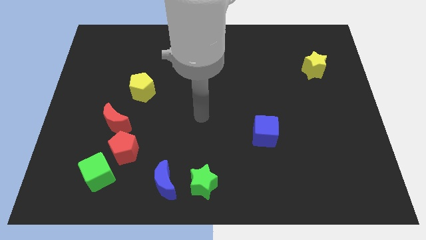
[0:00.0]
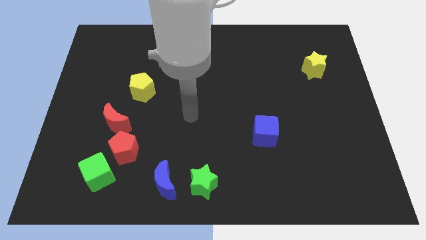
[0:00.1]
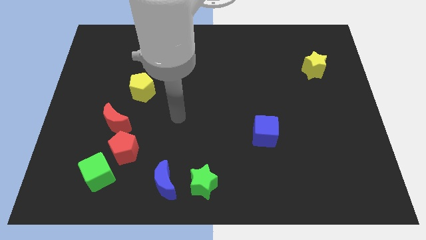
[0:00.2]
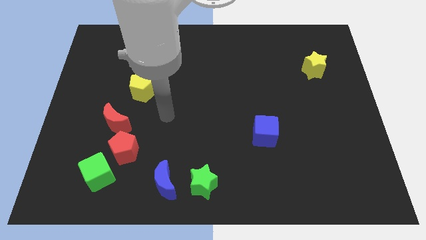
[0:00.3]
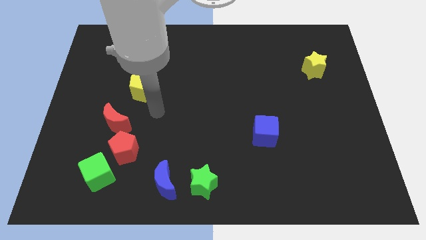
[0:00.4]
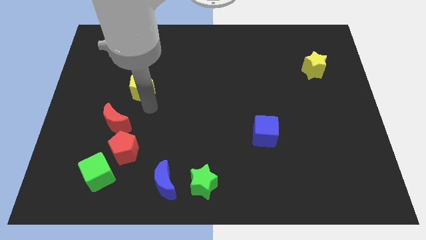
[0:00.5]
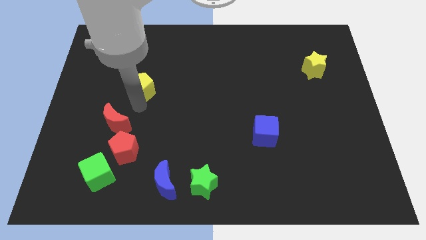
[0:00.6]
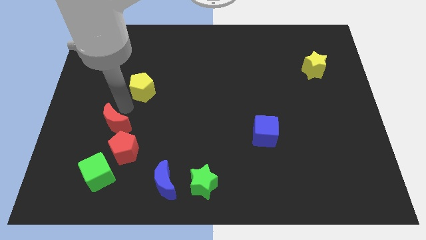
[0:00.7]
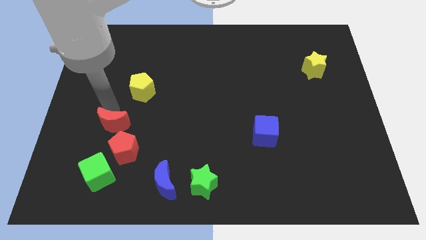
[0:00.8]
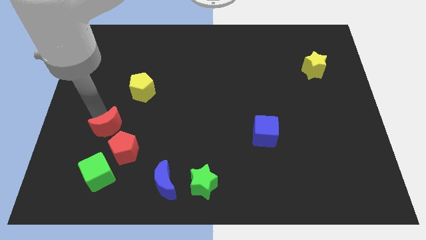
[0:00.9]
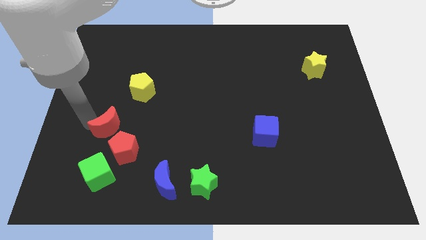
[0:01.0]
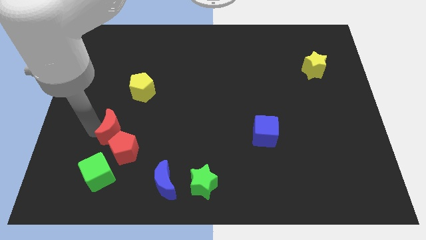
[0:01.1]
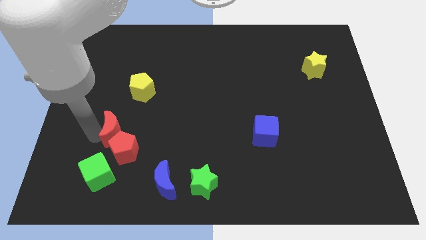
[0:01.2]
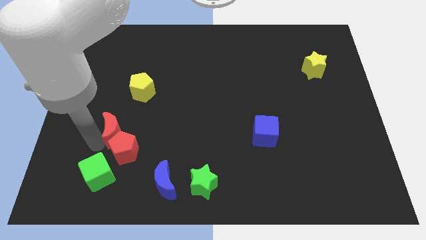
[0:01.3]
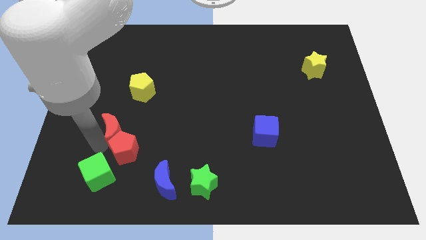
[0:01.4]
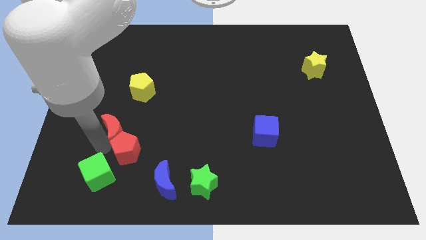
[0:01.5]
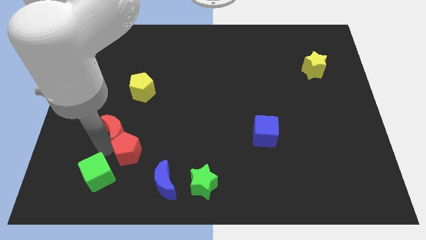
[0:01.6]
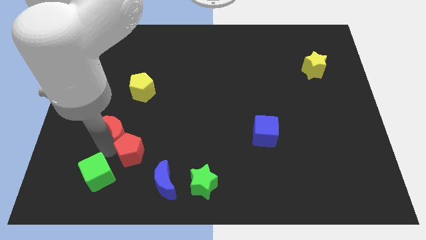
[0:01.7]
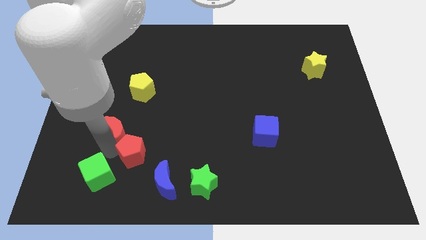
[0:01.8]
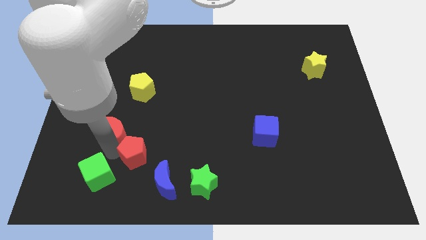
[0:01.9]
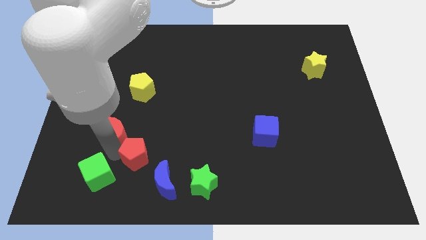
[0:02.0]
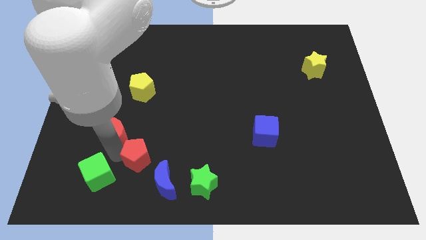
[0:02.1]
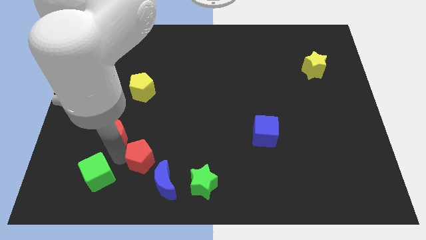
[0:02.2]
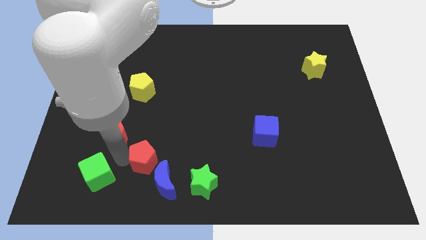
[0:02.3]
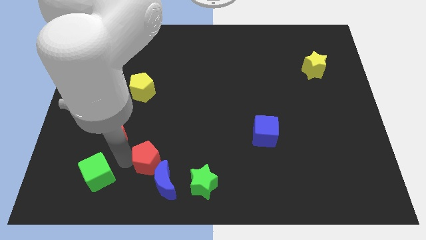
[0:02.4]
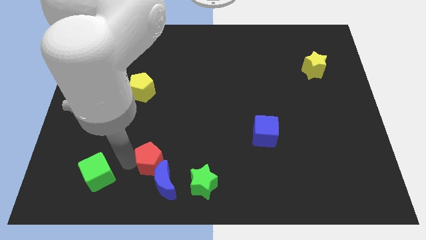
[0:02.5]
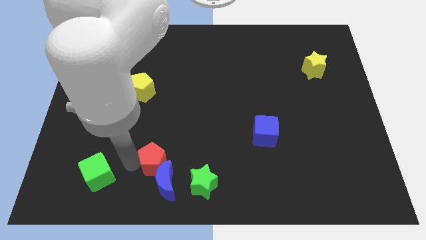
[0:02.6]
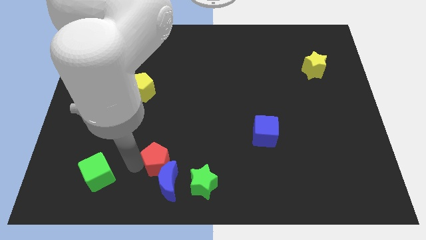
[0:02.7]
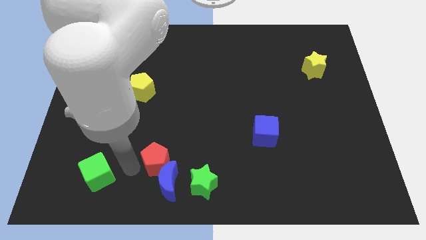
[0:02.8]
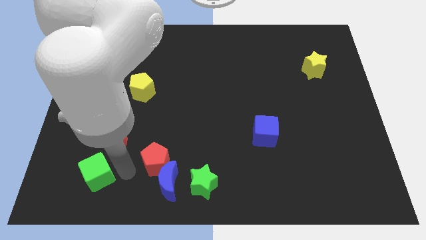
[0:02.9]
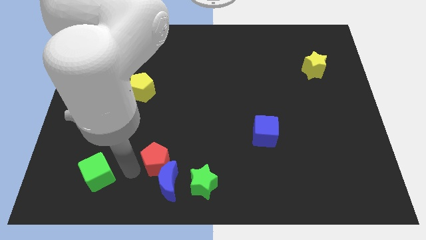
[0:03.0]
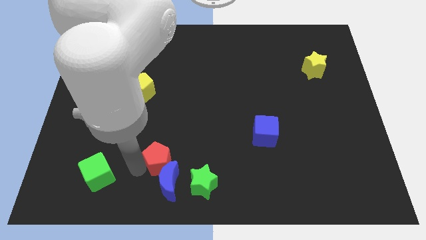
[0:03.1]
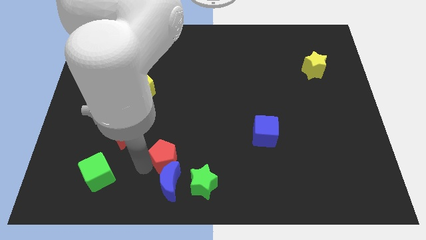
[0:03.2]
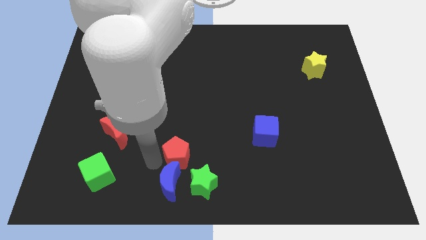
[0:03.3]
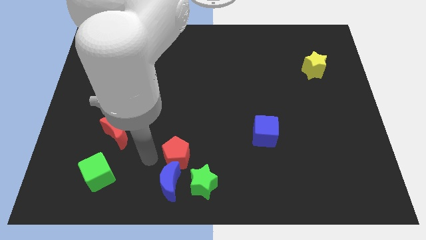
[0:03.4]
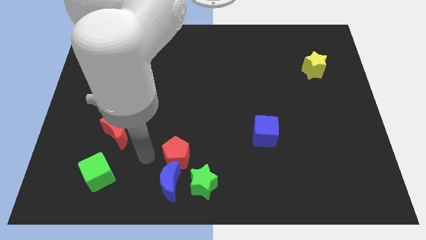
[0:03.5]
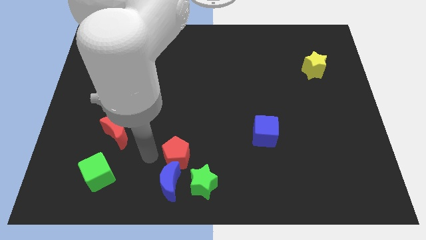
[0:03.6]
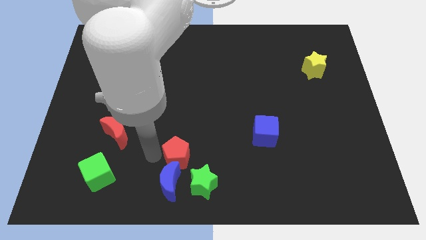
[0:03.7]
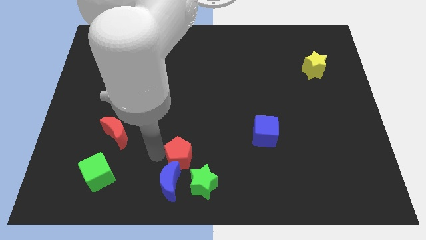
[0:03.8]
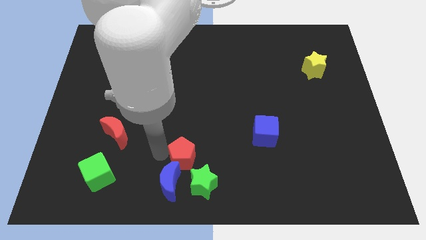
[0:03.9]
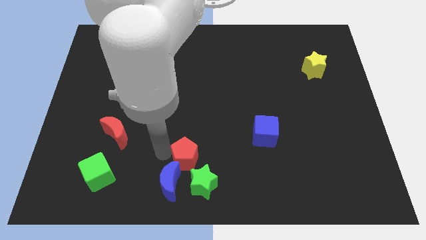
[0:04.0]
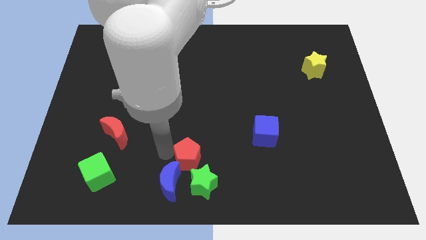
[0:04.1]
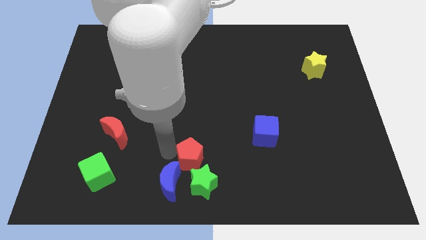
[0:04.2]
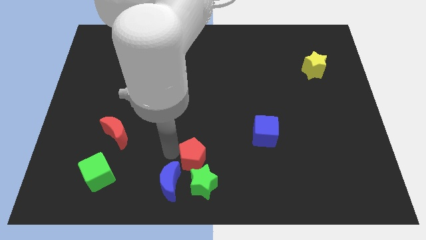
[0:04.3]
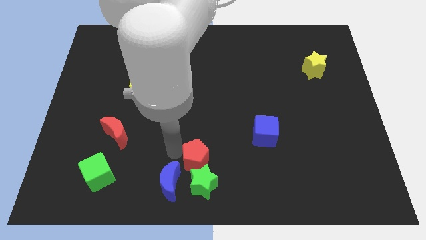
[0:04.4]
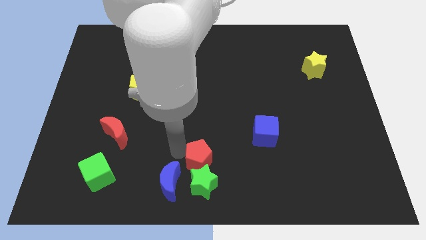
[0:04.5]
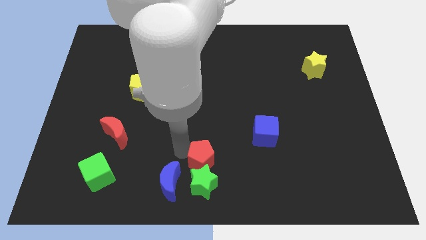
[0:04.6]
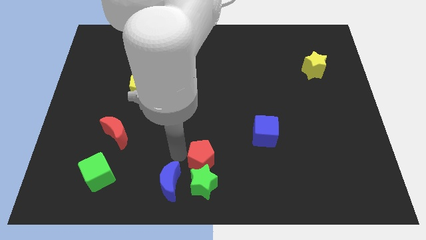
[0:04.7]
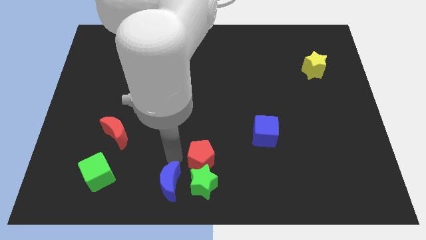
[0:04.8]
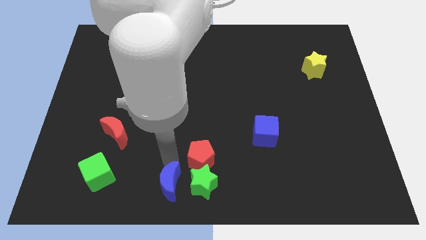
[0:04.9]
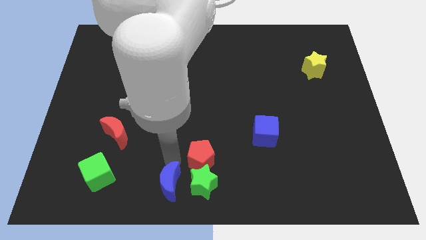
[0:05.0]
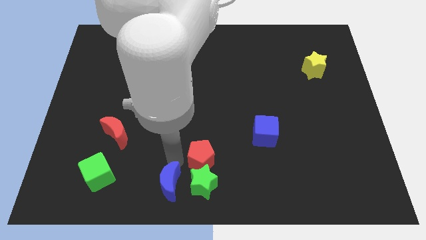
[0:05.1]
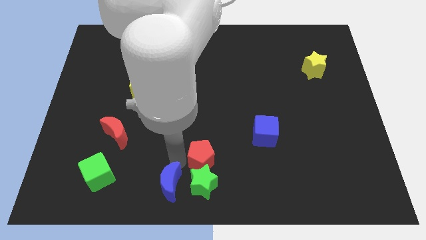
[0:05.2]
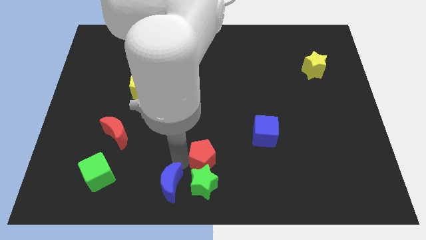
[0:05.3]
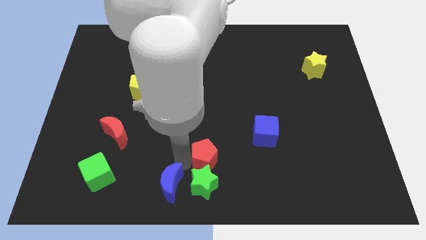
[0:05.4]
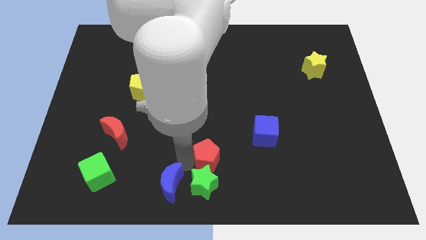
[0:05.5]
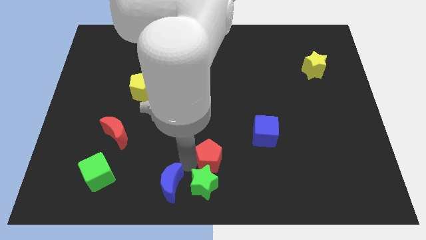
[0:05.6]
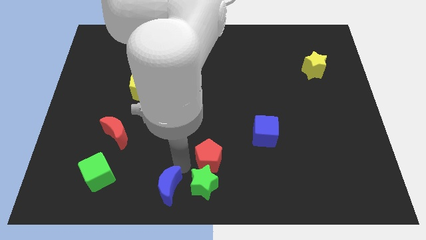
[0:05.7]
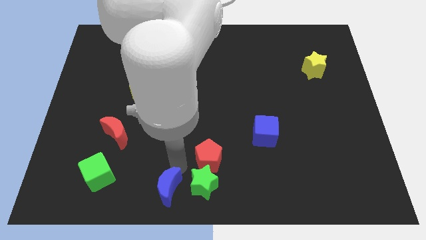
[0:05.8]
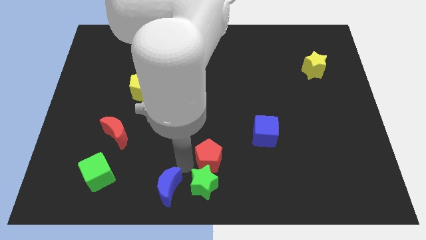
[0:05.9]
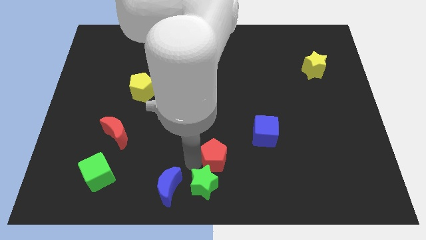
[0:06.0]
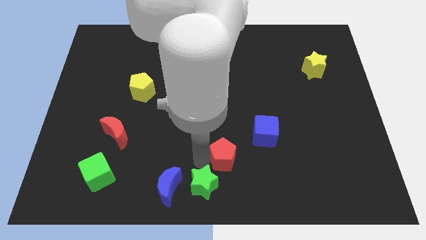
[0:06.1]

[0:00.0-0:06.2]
slide the red pentagon to the right

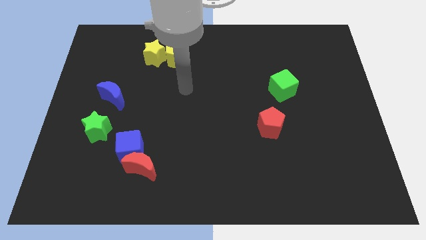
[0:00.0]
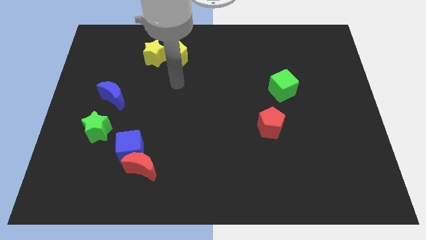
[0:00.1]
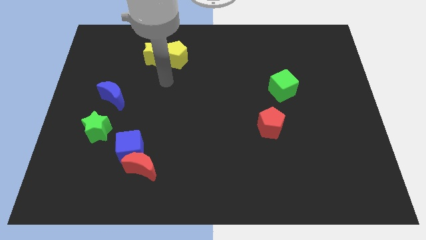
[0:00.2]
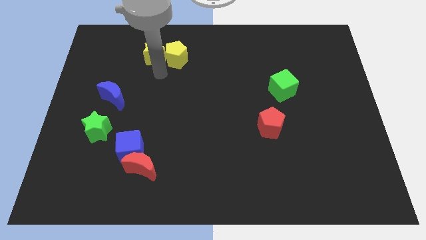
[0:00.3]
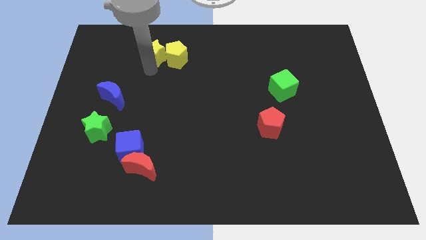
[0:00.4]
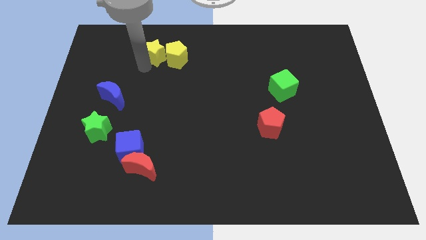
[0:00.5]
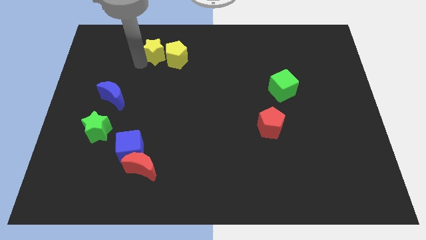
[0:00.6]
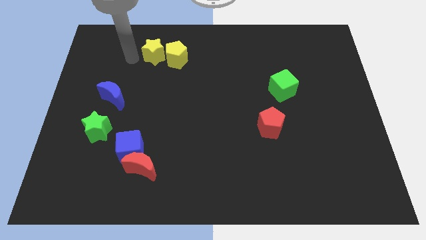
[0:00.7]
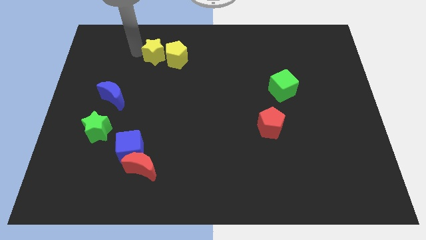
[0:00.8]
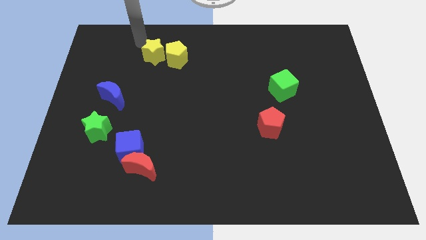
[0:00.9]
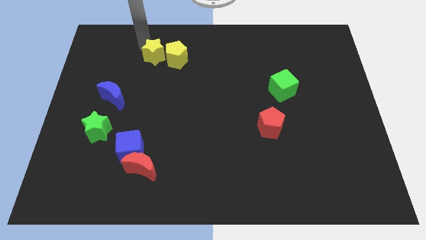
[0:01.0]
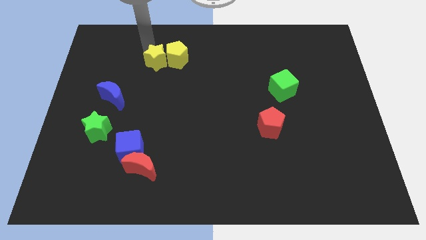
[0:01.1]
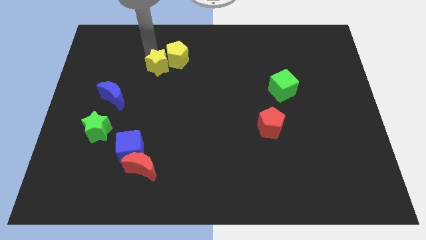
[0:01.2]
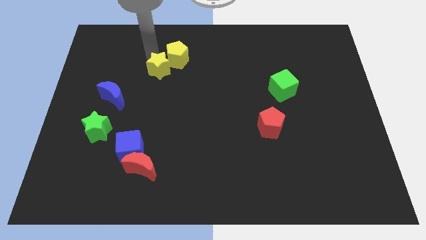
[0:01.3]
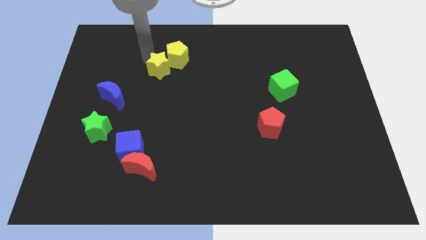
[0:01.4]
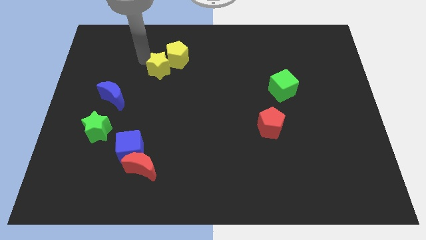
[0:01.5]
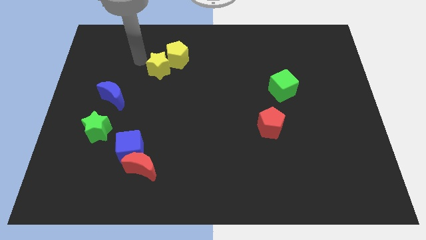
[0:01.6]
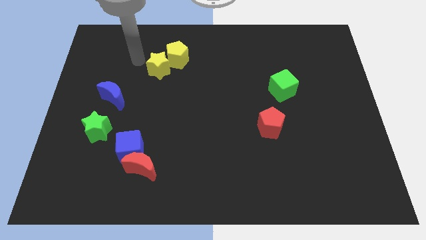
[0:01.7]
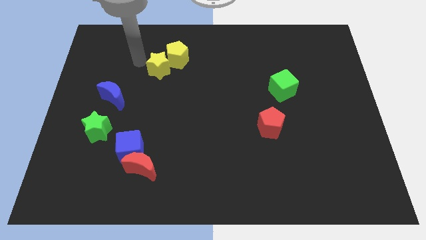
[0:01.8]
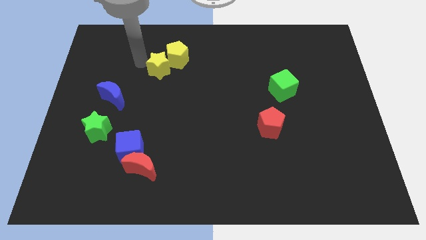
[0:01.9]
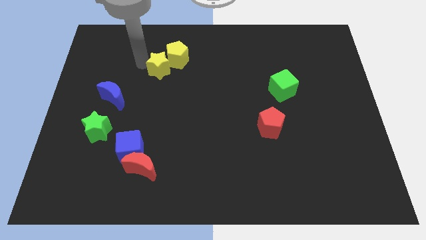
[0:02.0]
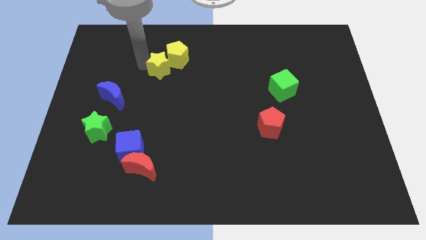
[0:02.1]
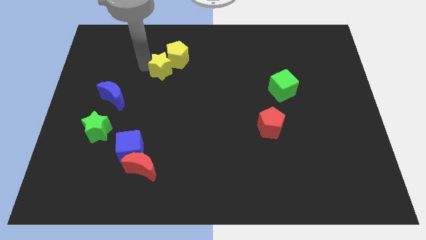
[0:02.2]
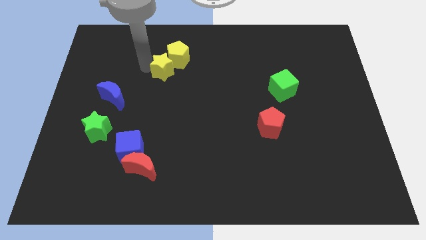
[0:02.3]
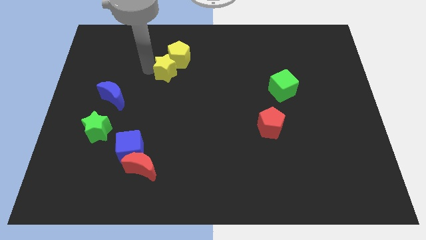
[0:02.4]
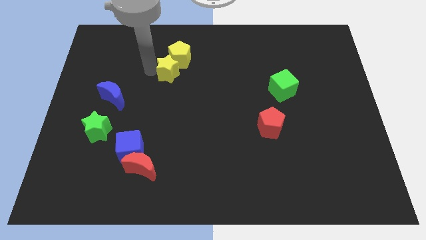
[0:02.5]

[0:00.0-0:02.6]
slightly slide the yellow star down and to the right diagonally
